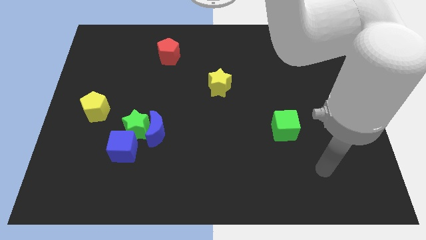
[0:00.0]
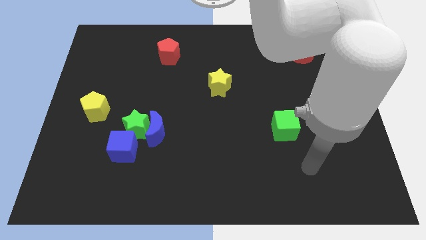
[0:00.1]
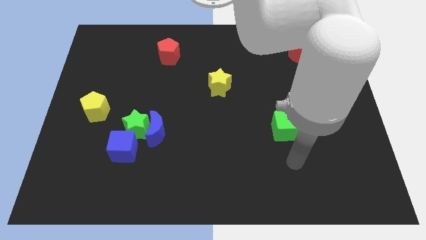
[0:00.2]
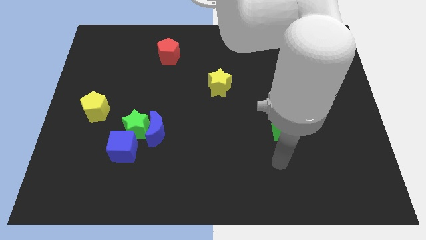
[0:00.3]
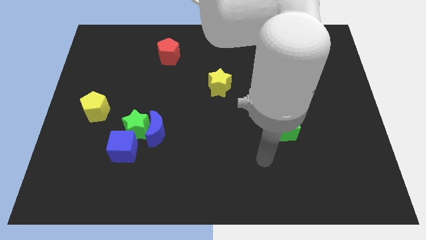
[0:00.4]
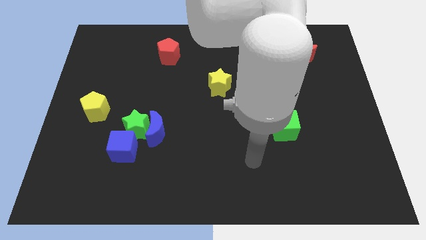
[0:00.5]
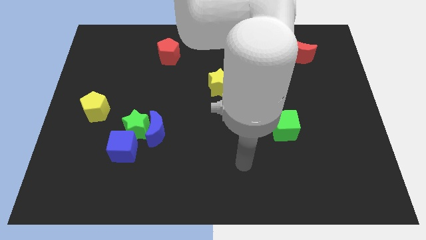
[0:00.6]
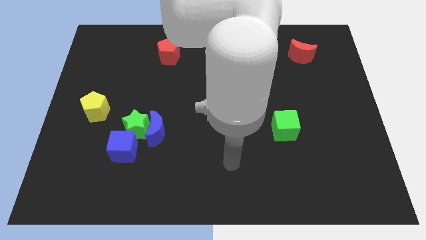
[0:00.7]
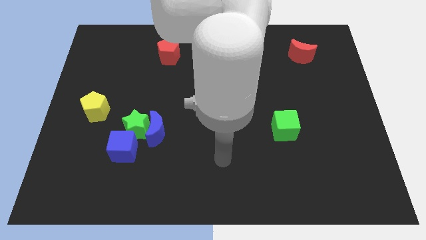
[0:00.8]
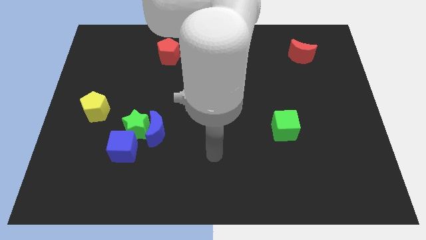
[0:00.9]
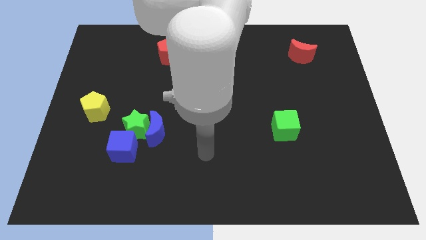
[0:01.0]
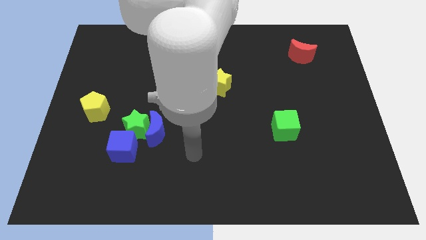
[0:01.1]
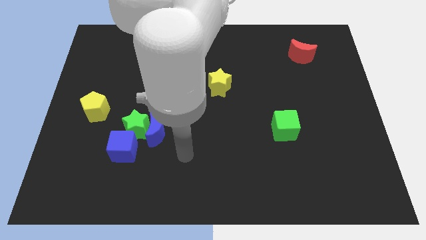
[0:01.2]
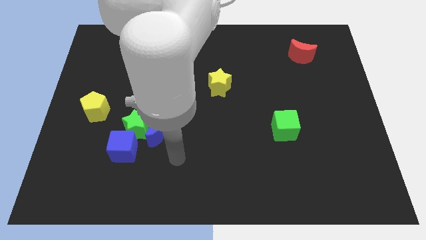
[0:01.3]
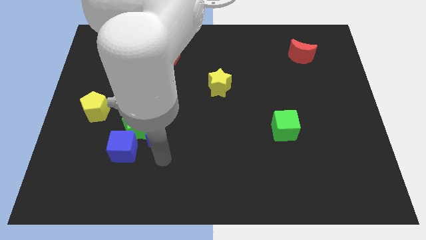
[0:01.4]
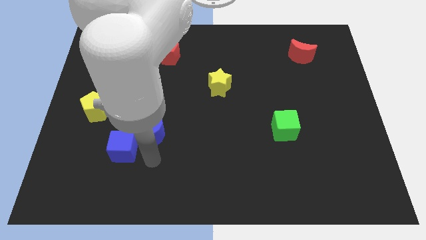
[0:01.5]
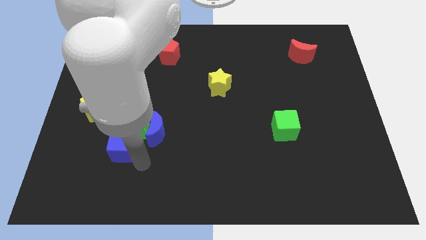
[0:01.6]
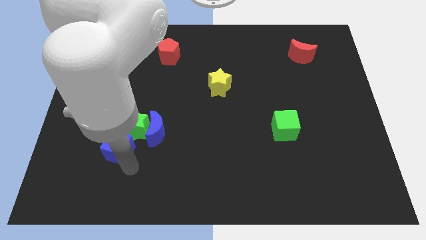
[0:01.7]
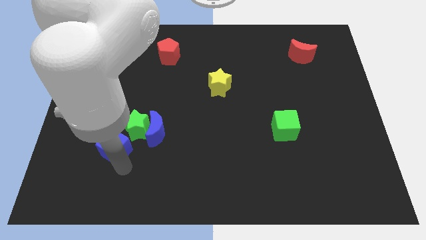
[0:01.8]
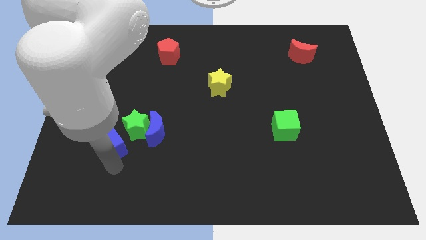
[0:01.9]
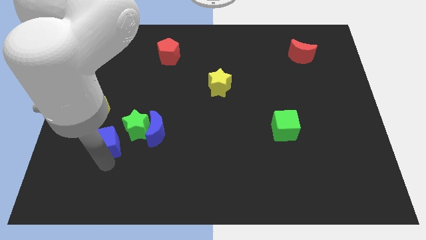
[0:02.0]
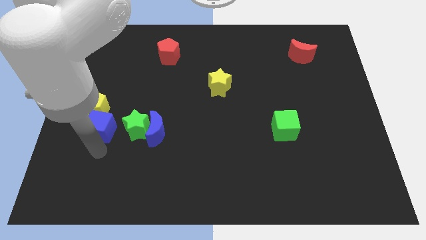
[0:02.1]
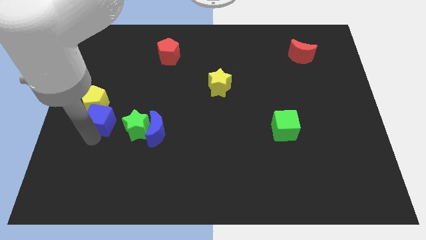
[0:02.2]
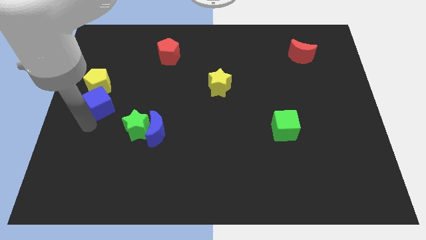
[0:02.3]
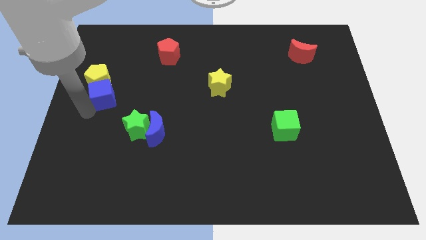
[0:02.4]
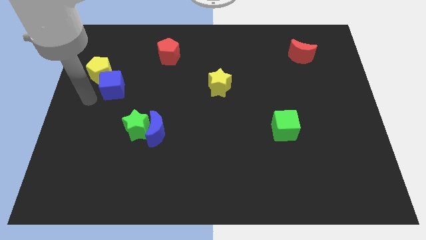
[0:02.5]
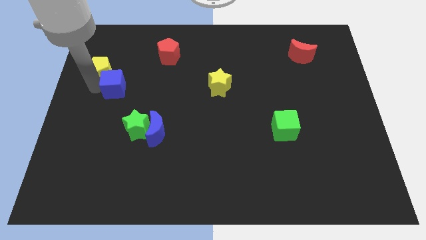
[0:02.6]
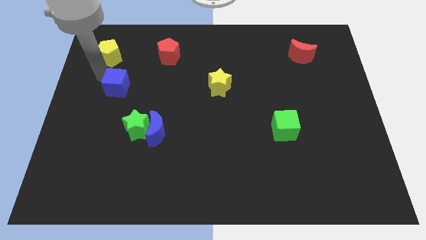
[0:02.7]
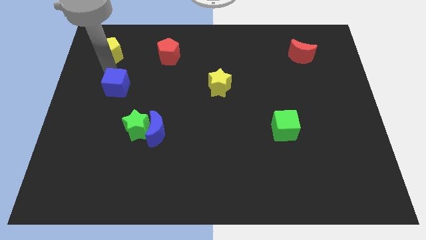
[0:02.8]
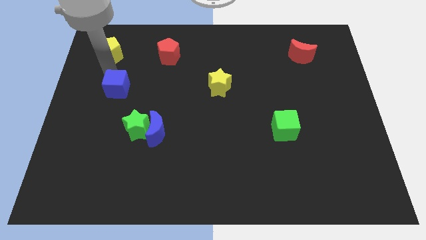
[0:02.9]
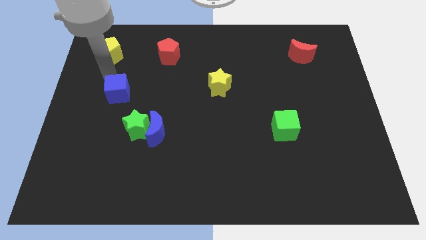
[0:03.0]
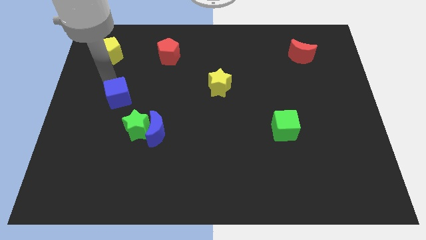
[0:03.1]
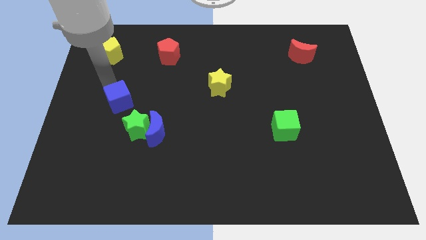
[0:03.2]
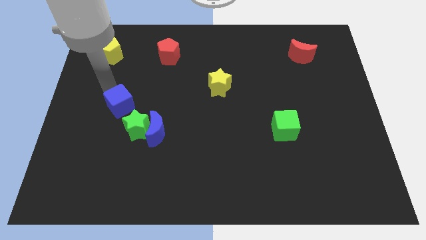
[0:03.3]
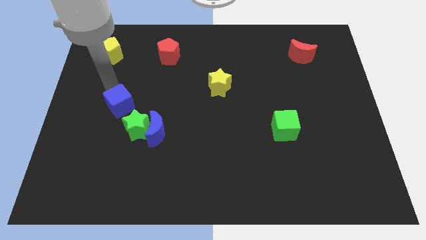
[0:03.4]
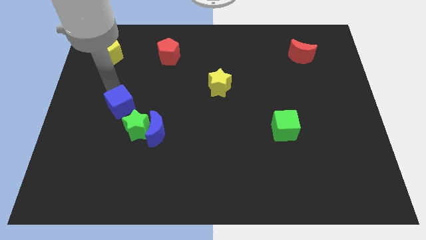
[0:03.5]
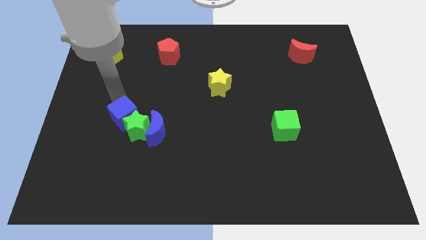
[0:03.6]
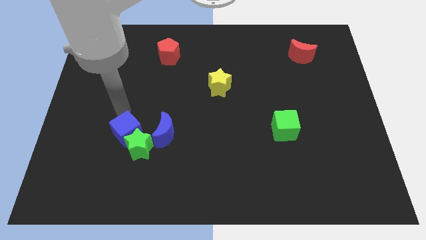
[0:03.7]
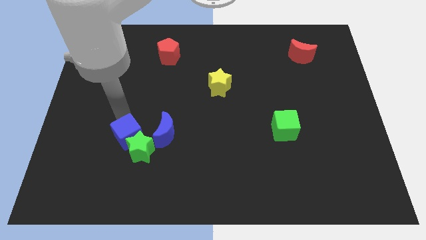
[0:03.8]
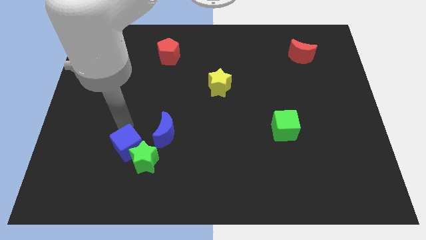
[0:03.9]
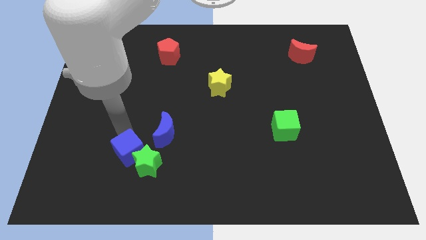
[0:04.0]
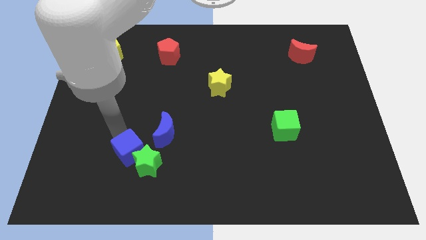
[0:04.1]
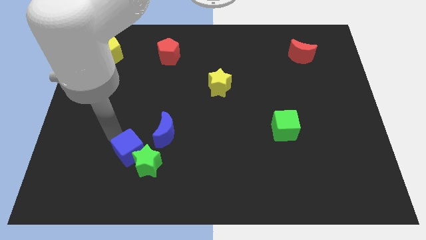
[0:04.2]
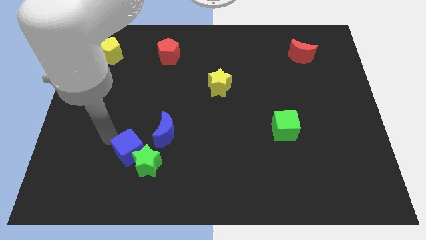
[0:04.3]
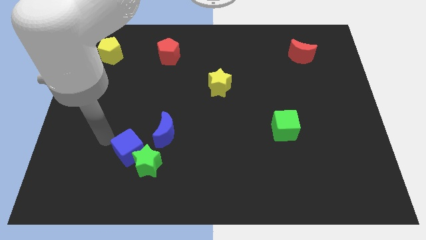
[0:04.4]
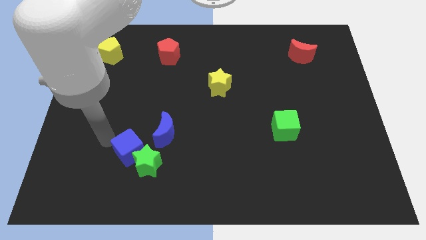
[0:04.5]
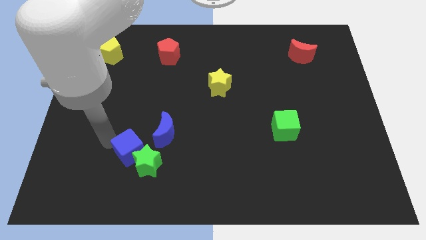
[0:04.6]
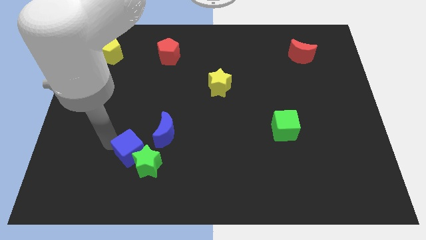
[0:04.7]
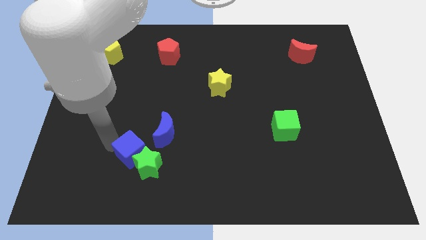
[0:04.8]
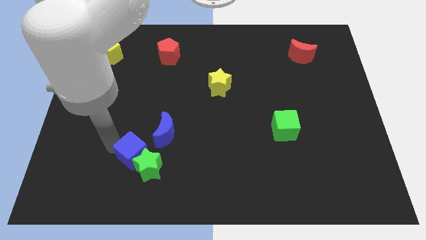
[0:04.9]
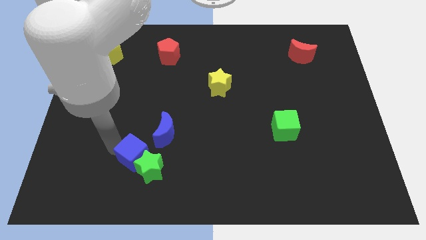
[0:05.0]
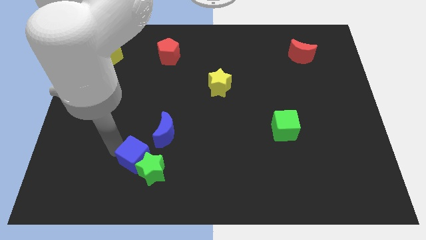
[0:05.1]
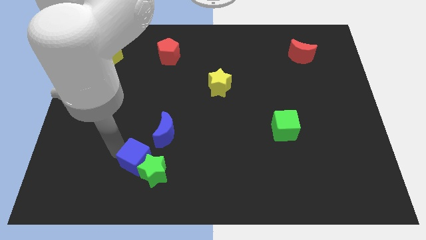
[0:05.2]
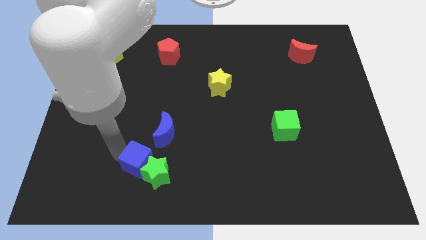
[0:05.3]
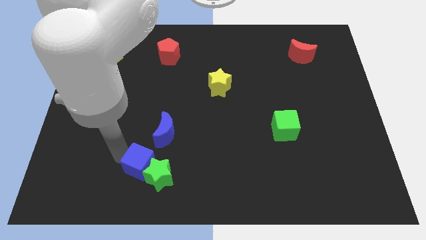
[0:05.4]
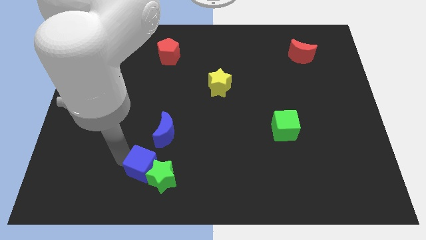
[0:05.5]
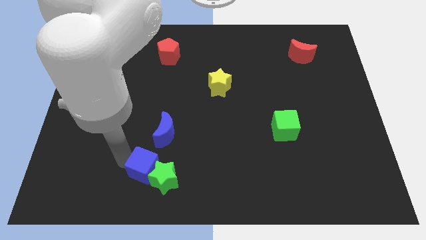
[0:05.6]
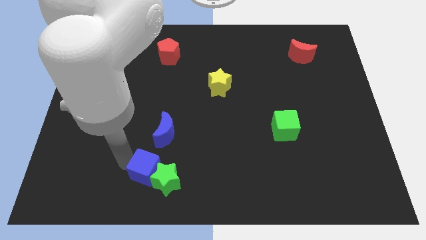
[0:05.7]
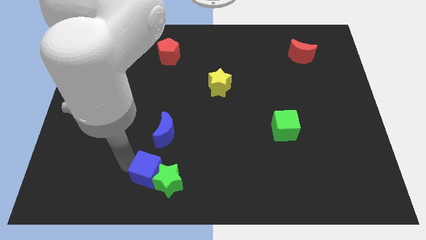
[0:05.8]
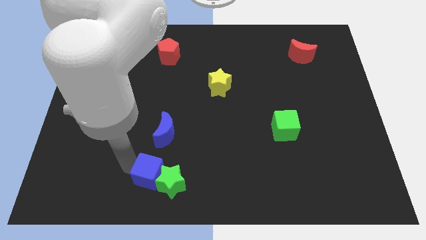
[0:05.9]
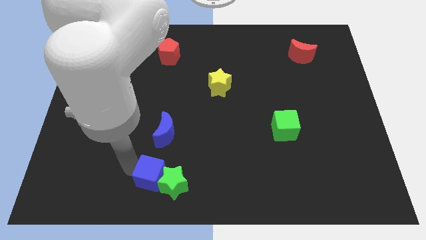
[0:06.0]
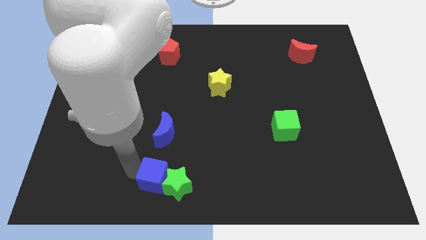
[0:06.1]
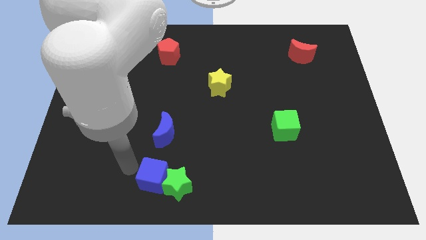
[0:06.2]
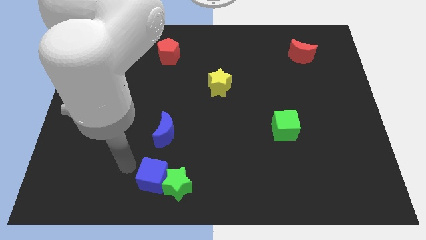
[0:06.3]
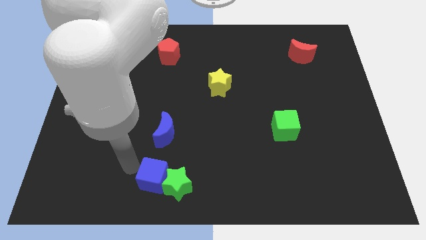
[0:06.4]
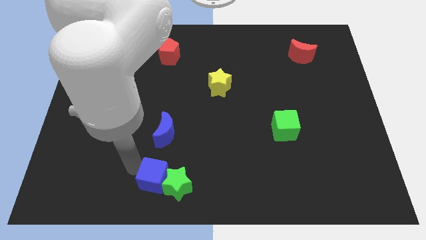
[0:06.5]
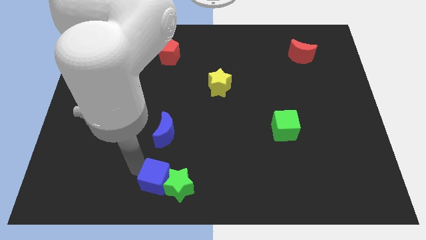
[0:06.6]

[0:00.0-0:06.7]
push the blue cube to the bottom side
